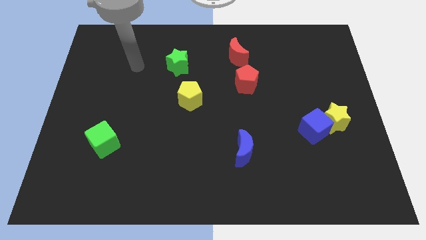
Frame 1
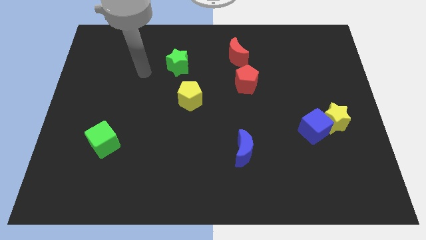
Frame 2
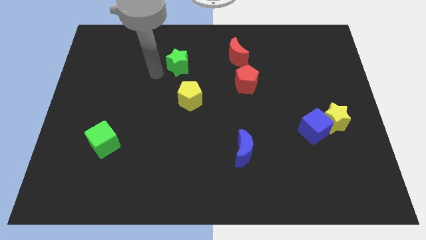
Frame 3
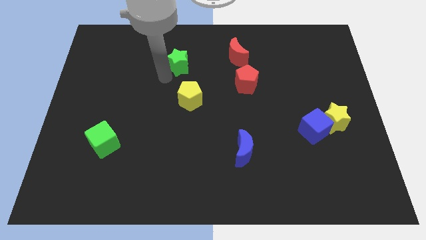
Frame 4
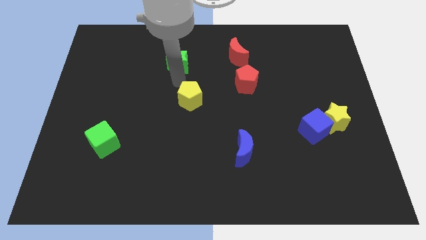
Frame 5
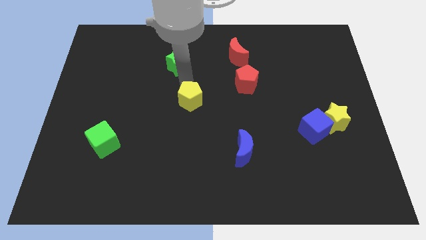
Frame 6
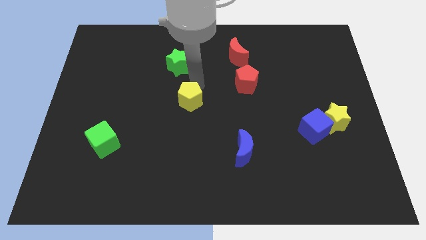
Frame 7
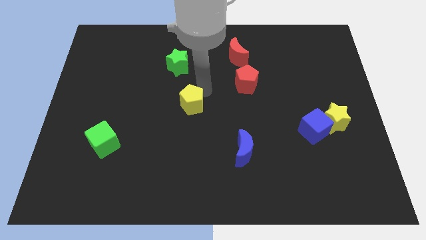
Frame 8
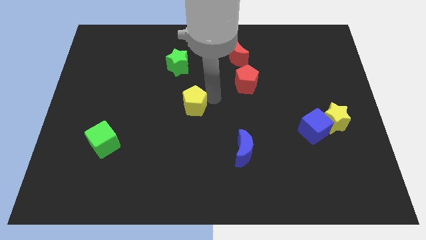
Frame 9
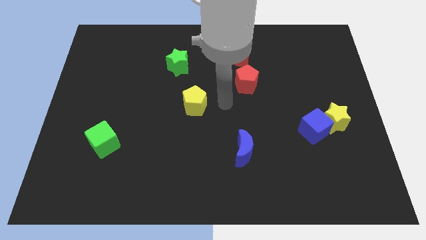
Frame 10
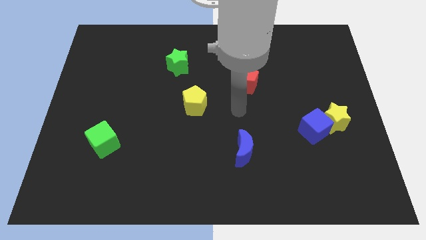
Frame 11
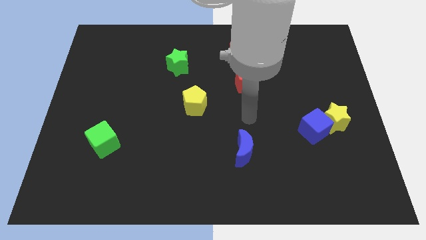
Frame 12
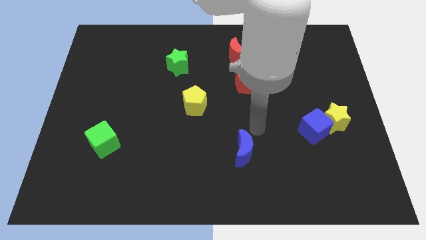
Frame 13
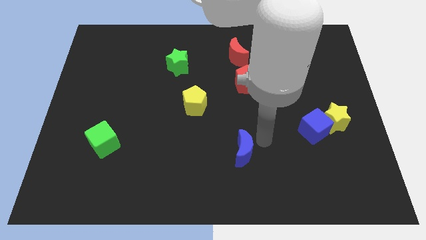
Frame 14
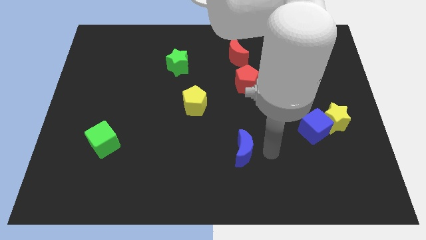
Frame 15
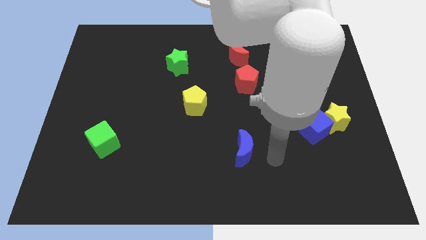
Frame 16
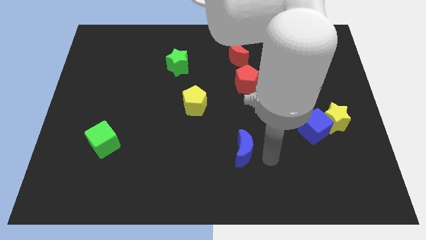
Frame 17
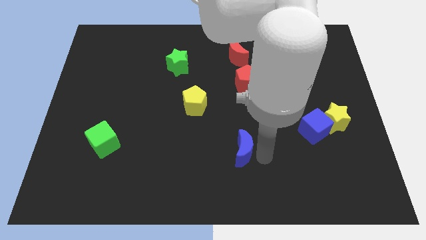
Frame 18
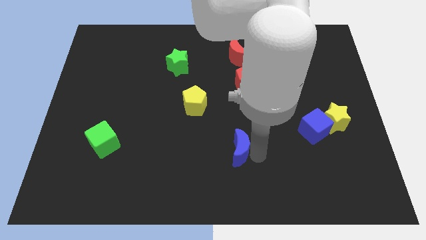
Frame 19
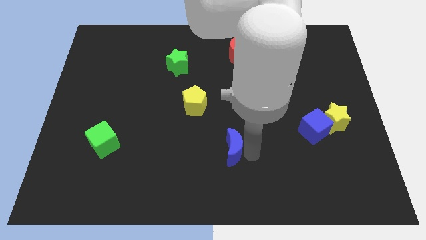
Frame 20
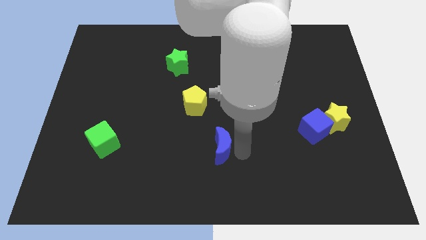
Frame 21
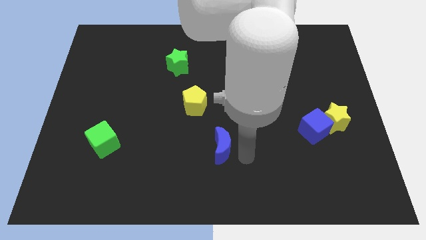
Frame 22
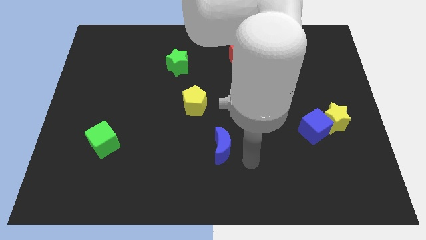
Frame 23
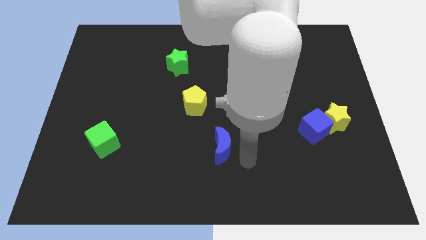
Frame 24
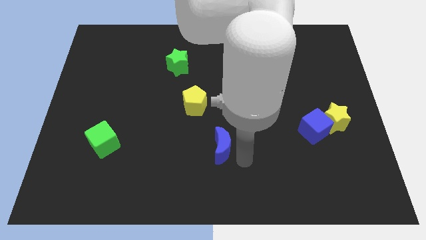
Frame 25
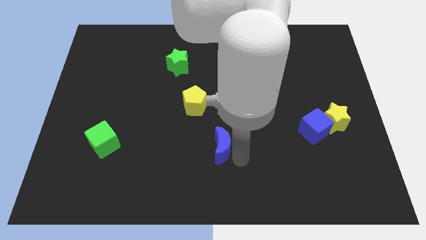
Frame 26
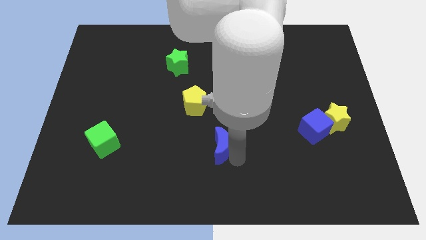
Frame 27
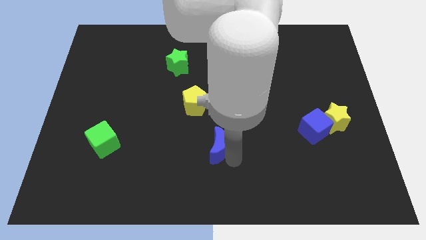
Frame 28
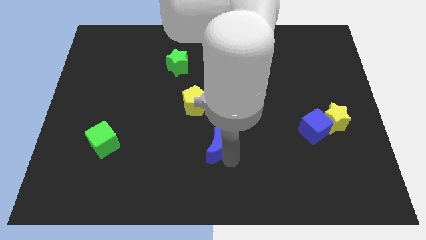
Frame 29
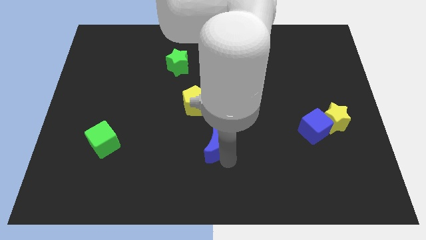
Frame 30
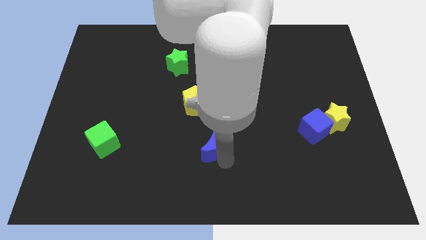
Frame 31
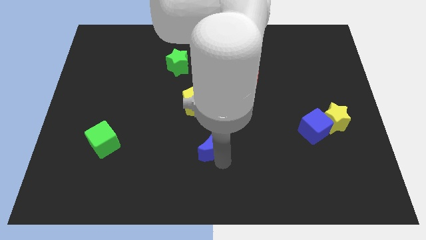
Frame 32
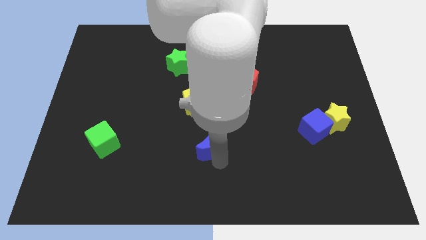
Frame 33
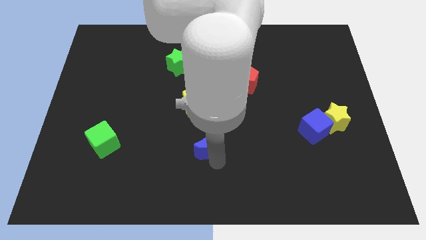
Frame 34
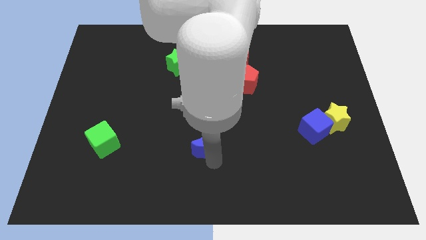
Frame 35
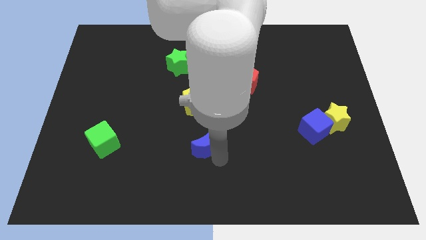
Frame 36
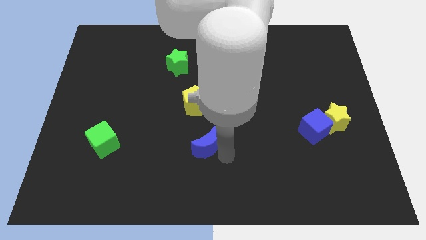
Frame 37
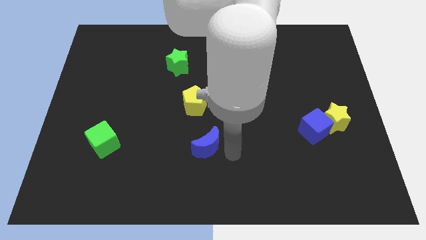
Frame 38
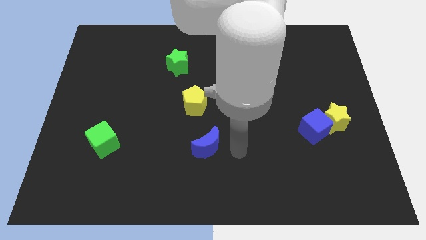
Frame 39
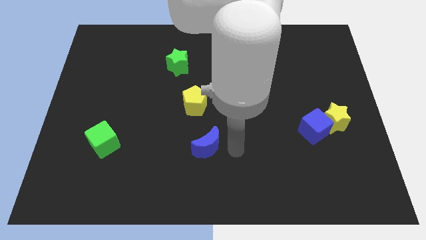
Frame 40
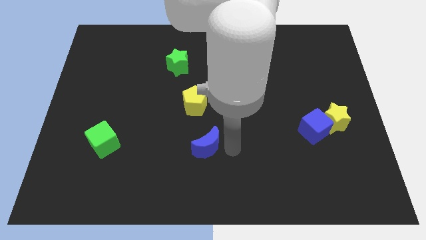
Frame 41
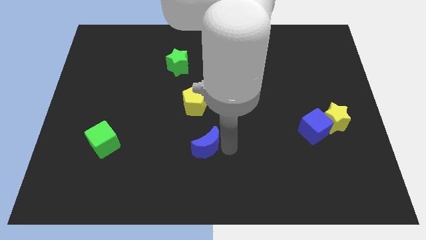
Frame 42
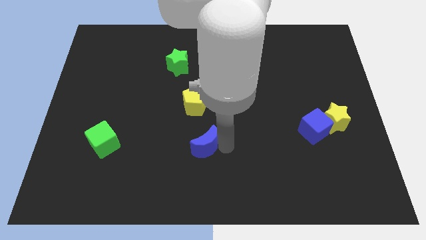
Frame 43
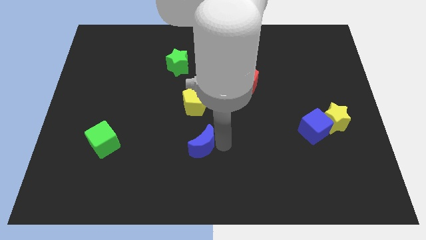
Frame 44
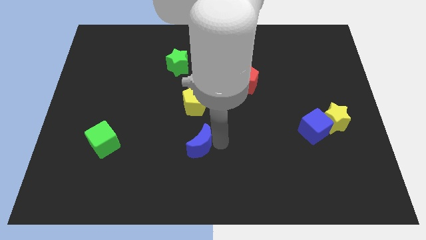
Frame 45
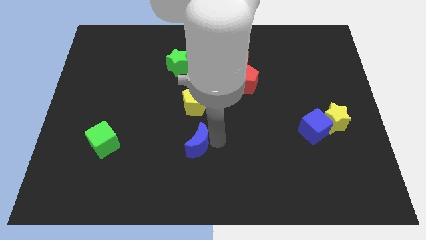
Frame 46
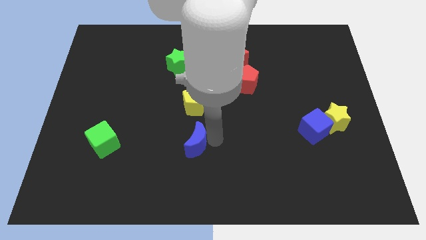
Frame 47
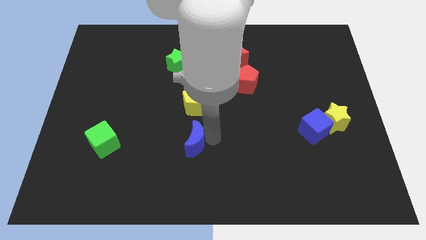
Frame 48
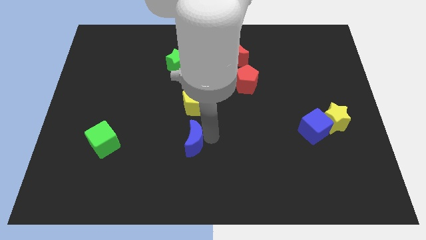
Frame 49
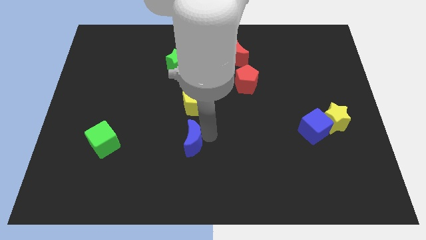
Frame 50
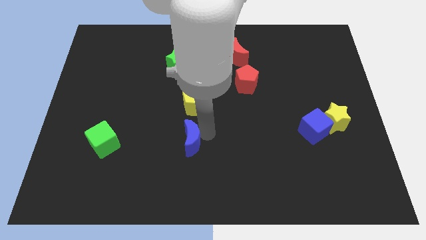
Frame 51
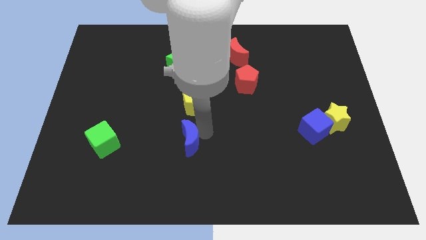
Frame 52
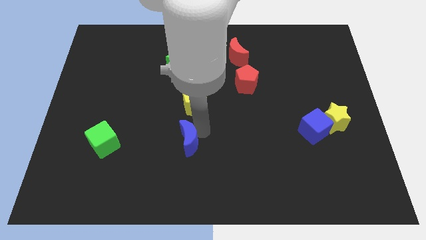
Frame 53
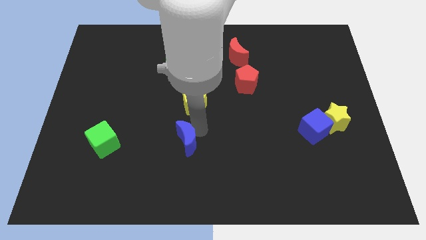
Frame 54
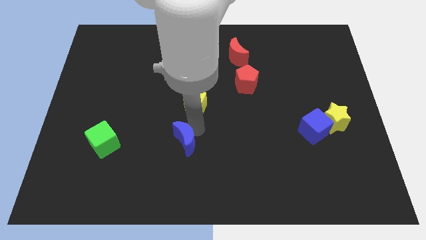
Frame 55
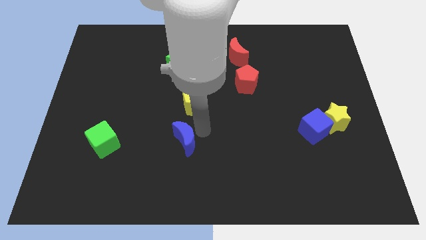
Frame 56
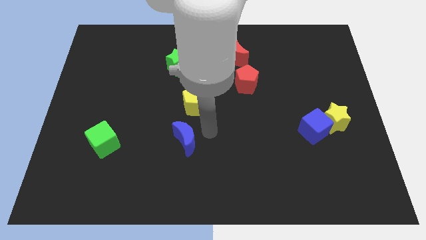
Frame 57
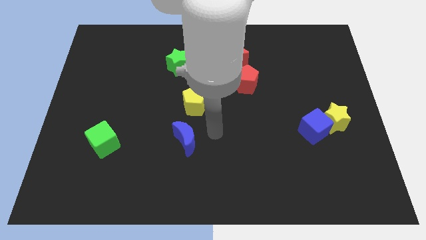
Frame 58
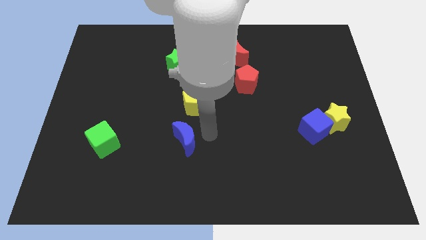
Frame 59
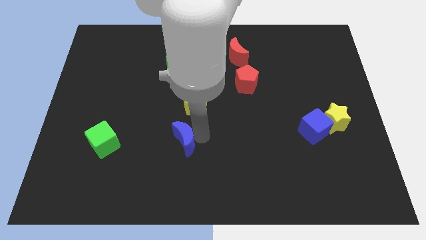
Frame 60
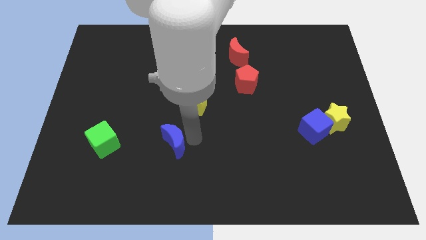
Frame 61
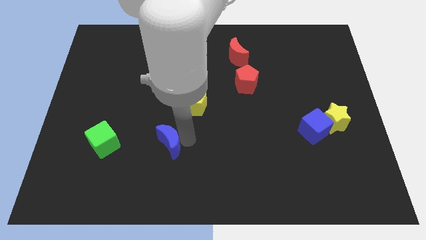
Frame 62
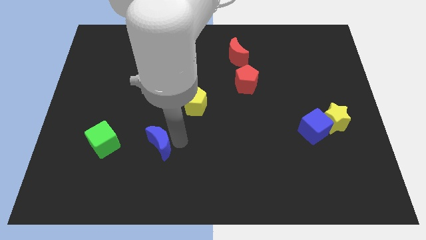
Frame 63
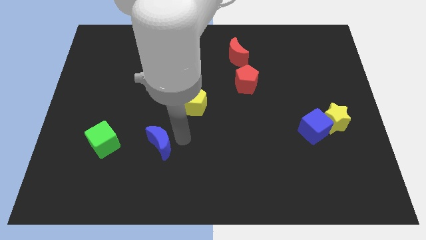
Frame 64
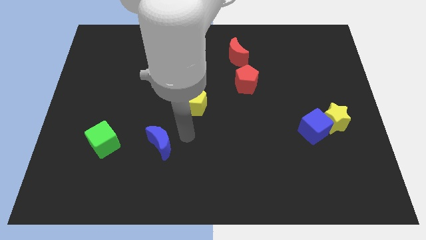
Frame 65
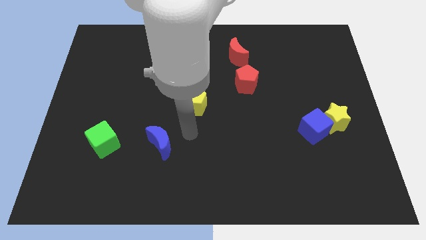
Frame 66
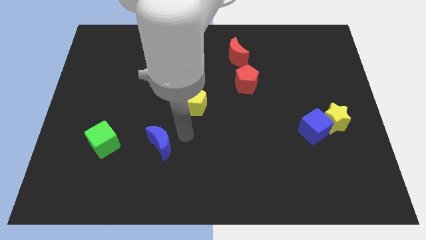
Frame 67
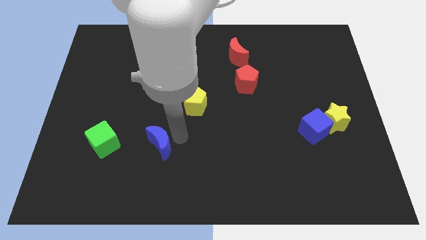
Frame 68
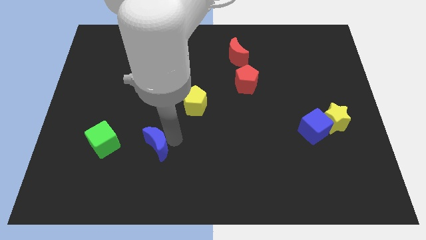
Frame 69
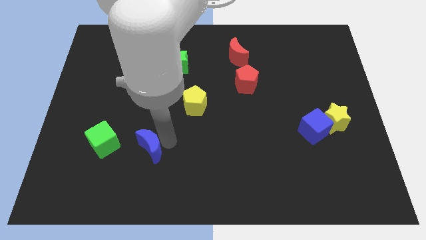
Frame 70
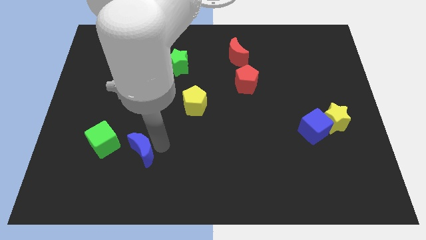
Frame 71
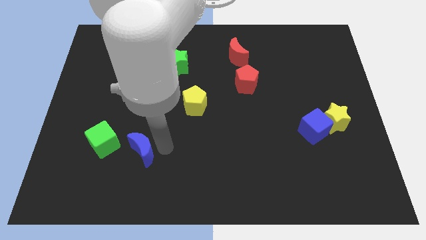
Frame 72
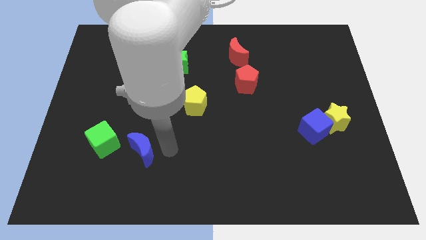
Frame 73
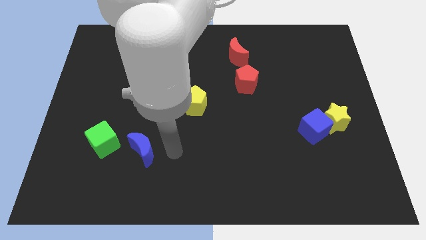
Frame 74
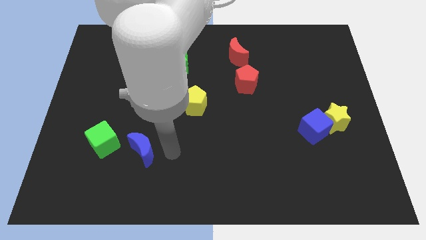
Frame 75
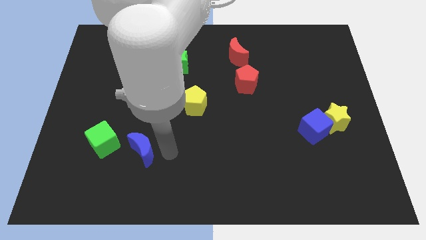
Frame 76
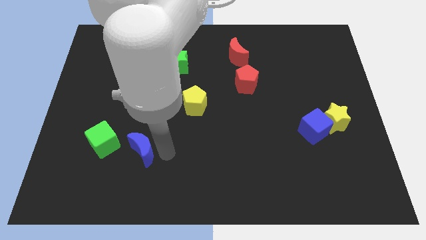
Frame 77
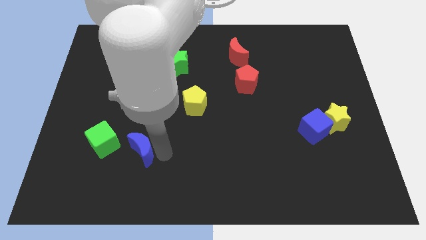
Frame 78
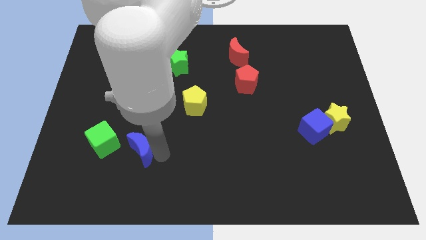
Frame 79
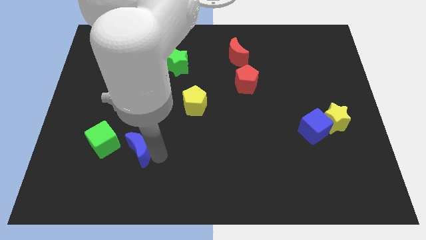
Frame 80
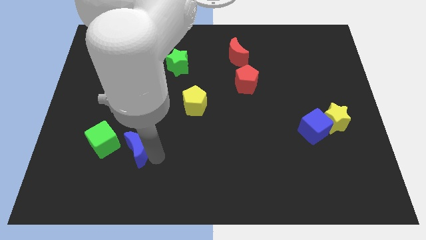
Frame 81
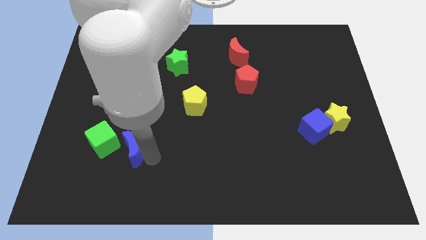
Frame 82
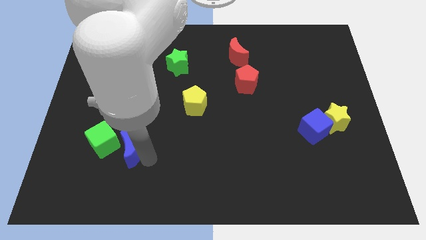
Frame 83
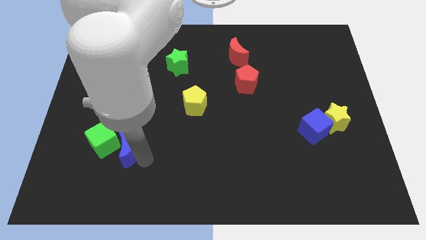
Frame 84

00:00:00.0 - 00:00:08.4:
push the blue moon close to the green cube
